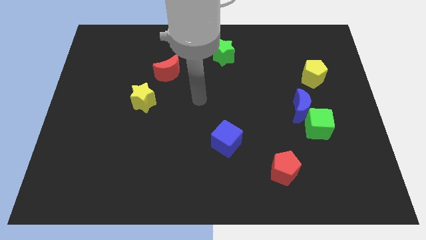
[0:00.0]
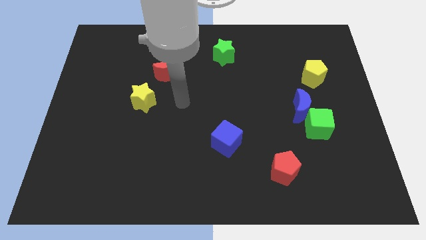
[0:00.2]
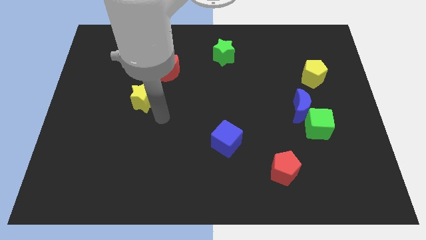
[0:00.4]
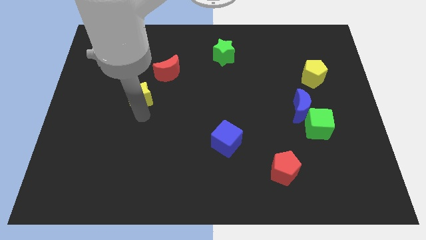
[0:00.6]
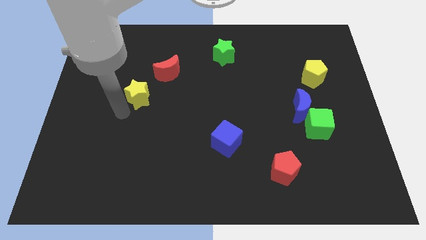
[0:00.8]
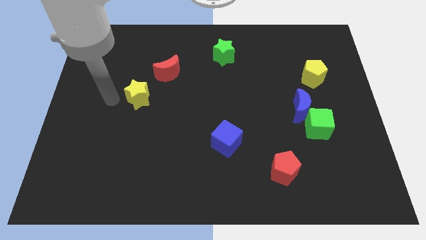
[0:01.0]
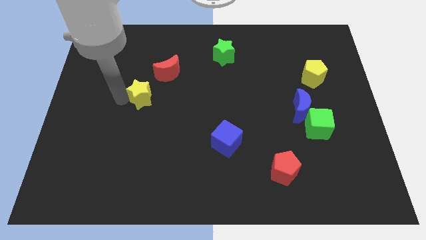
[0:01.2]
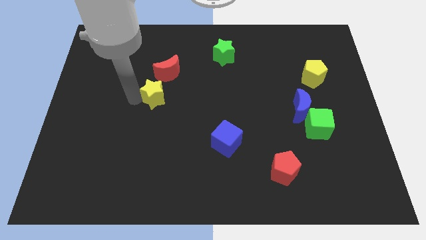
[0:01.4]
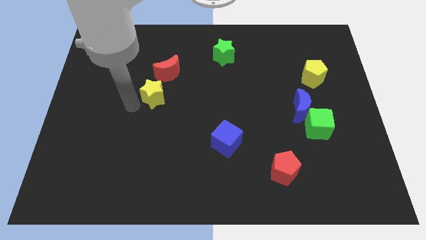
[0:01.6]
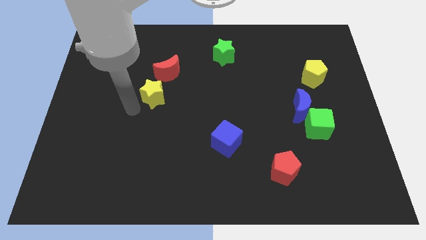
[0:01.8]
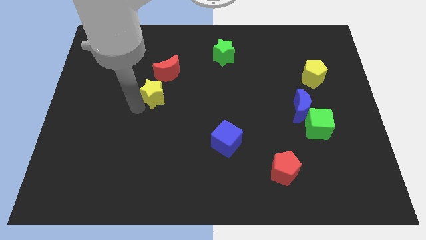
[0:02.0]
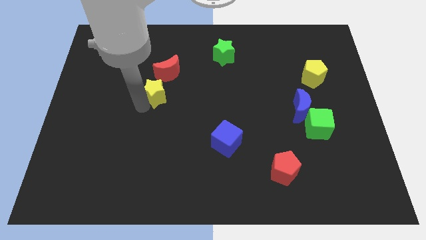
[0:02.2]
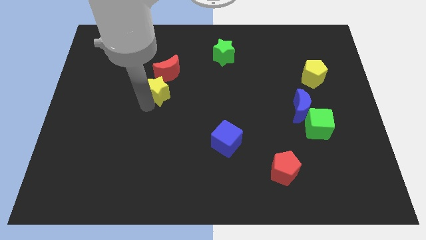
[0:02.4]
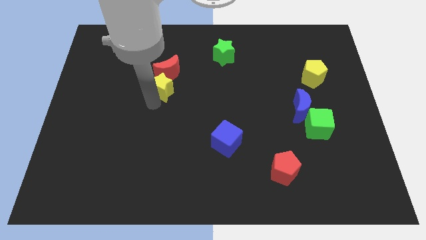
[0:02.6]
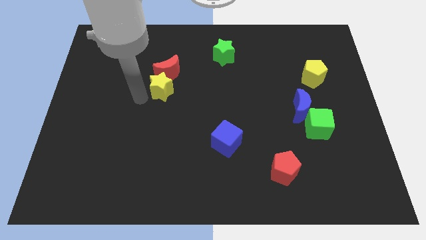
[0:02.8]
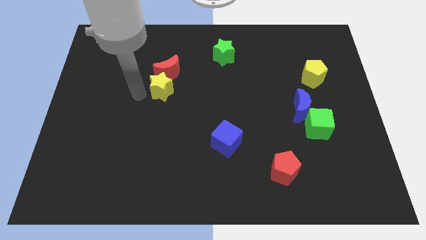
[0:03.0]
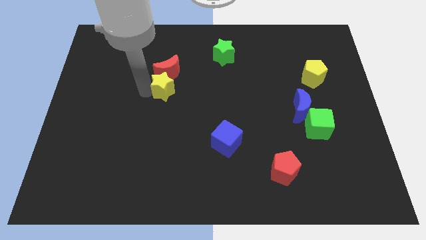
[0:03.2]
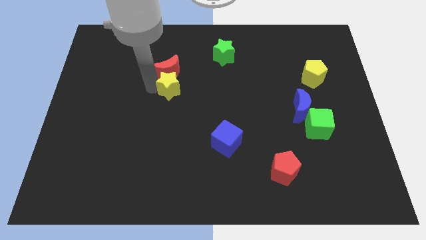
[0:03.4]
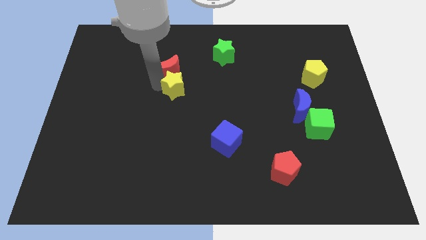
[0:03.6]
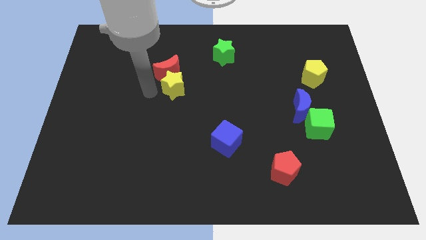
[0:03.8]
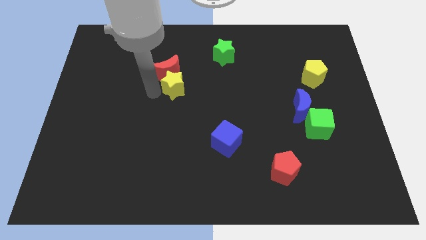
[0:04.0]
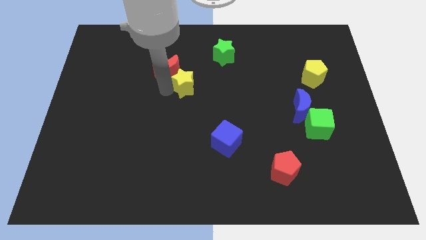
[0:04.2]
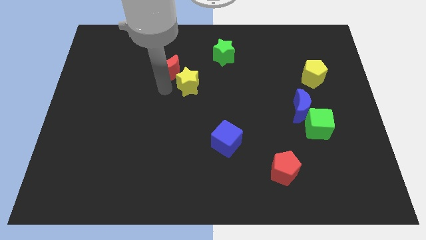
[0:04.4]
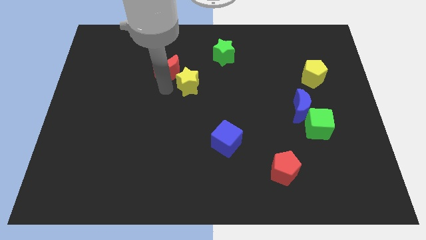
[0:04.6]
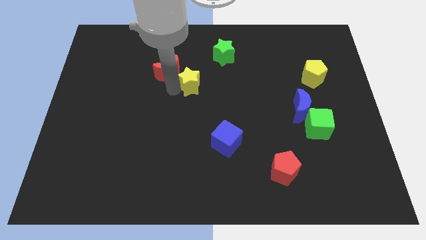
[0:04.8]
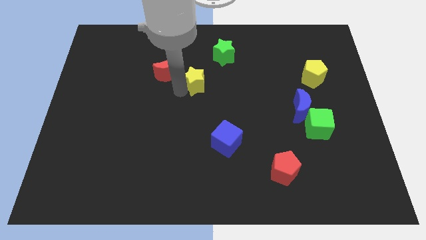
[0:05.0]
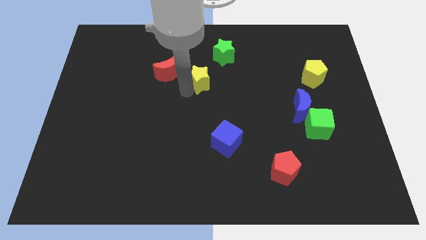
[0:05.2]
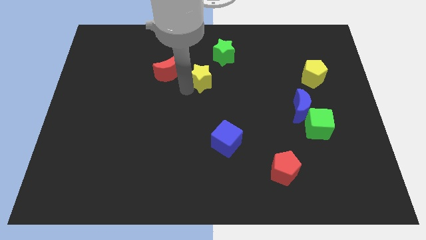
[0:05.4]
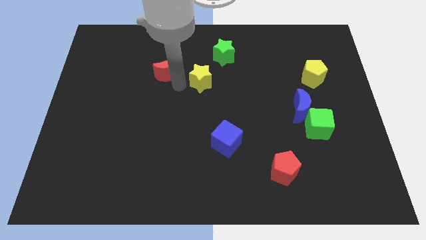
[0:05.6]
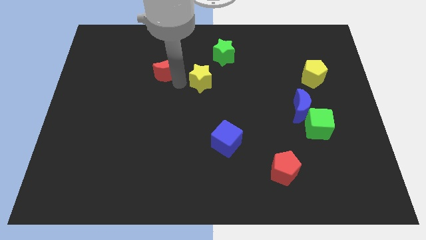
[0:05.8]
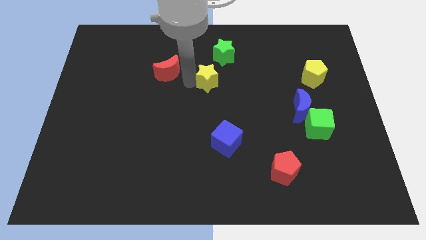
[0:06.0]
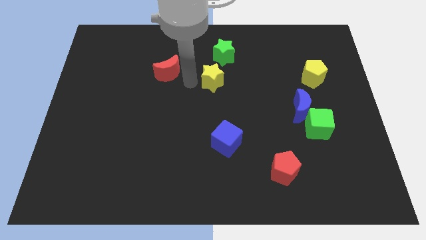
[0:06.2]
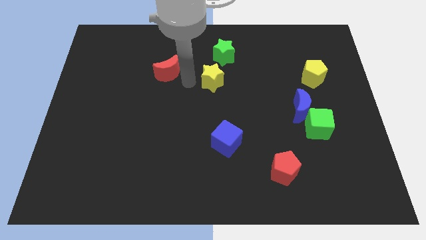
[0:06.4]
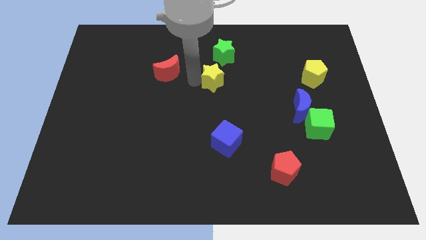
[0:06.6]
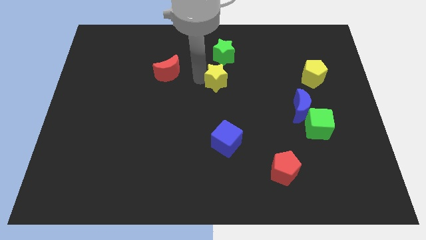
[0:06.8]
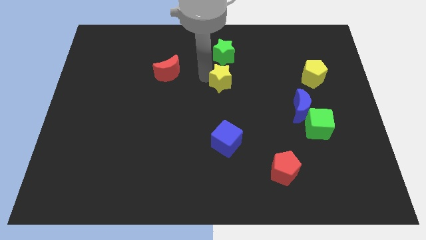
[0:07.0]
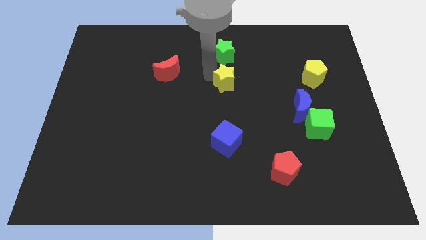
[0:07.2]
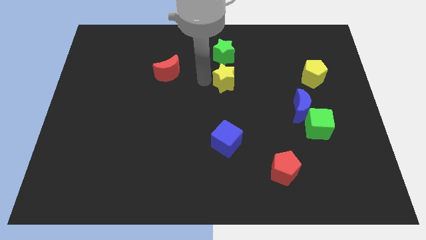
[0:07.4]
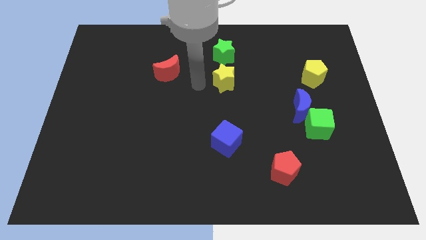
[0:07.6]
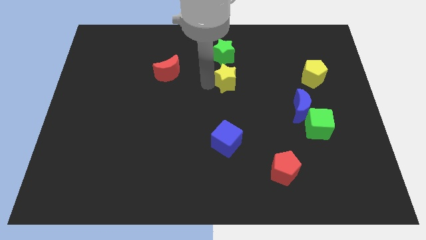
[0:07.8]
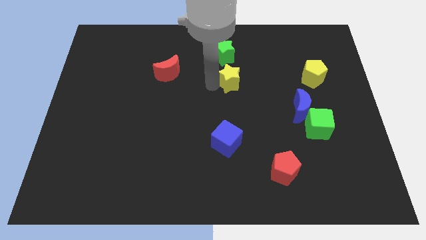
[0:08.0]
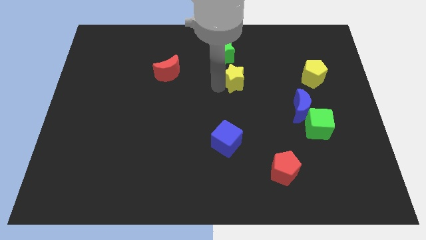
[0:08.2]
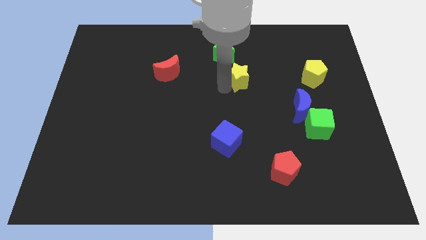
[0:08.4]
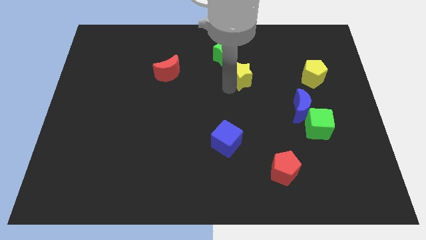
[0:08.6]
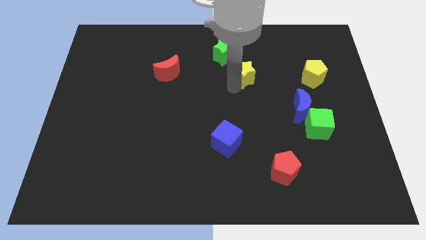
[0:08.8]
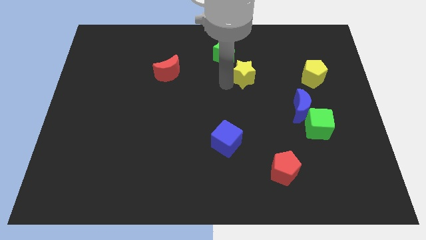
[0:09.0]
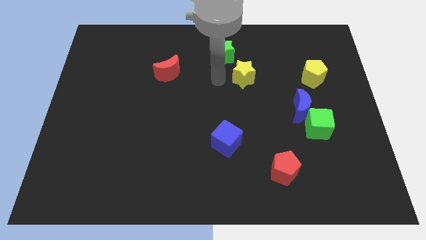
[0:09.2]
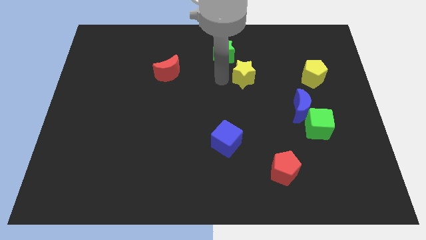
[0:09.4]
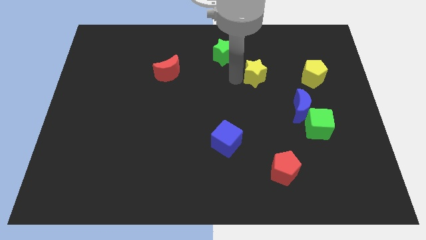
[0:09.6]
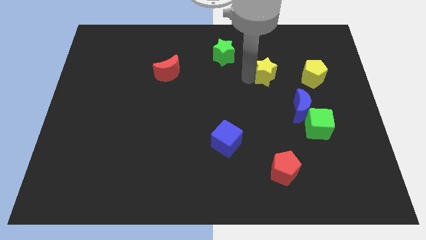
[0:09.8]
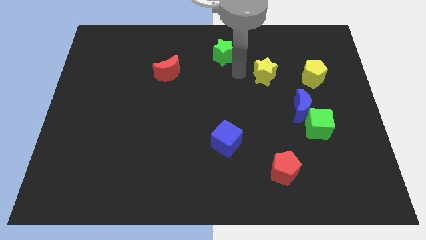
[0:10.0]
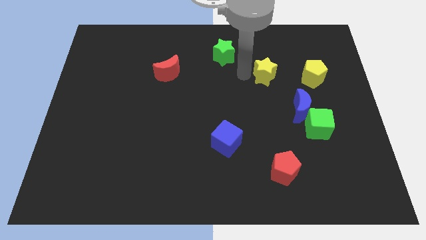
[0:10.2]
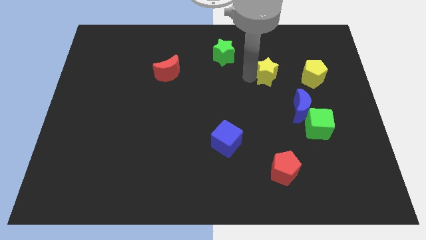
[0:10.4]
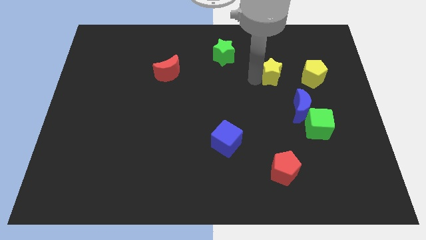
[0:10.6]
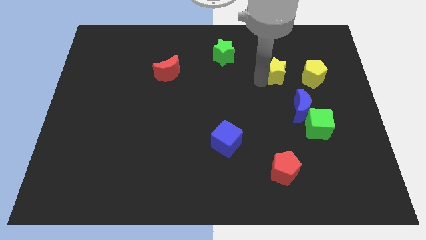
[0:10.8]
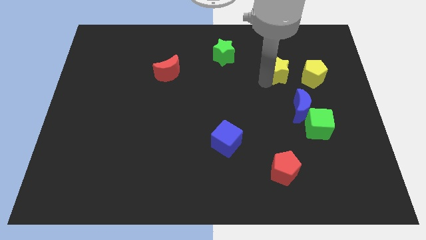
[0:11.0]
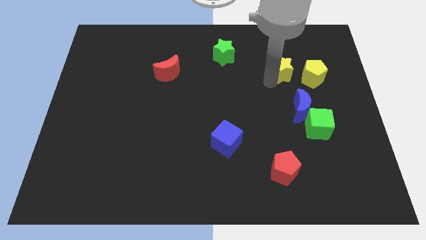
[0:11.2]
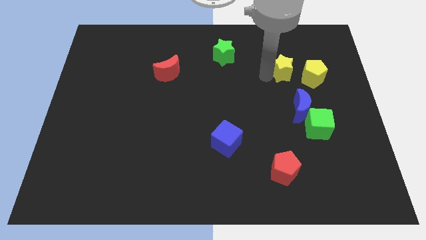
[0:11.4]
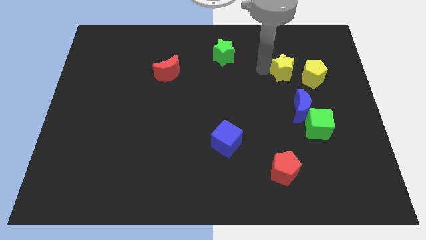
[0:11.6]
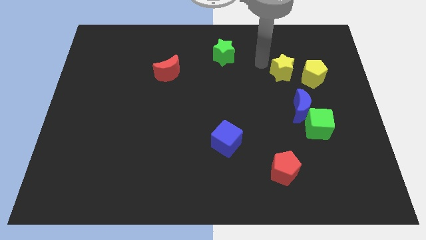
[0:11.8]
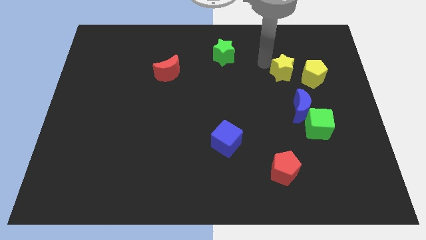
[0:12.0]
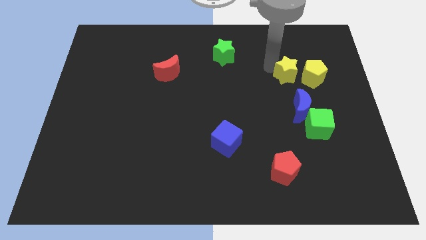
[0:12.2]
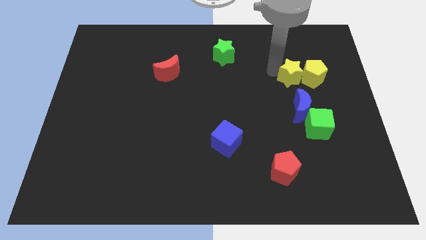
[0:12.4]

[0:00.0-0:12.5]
move the yellow star close to the yellow pentagon
